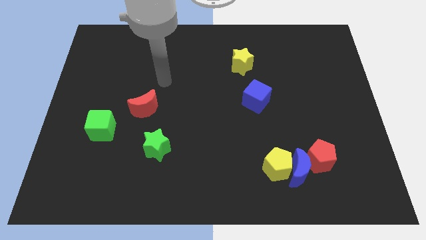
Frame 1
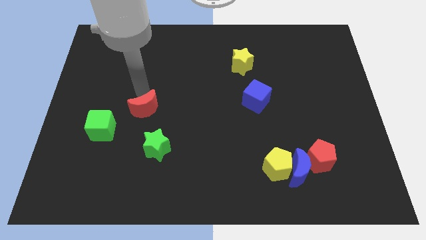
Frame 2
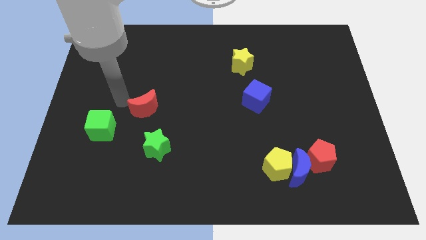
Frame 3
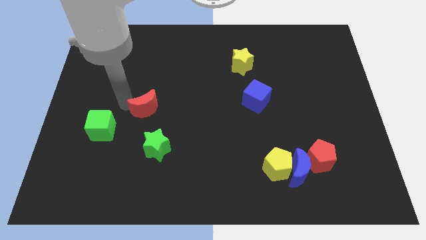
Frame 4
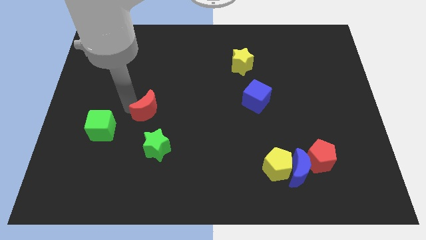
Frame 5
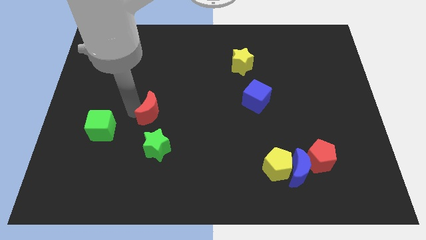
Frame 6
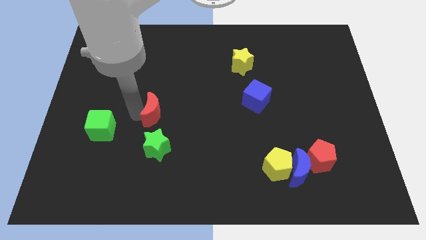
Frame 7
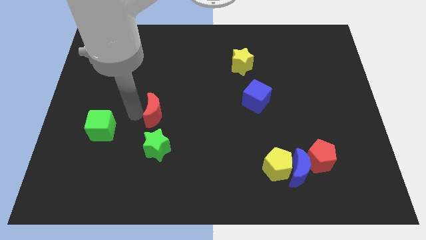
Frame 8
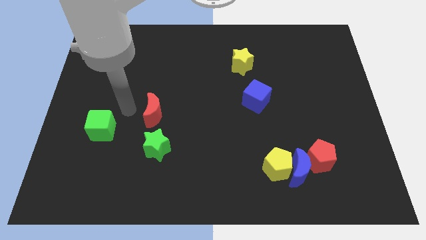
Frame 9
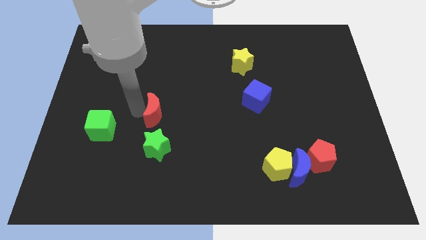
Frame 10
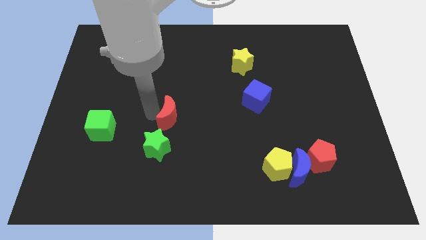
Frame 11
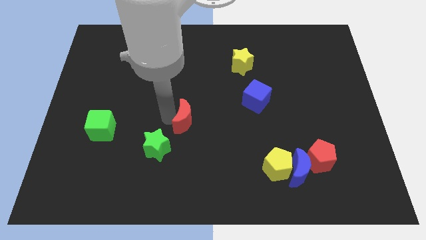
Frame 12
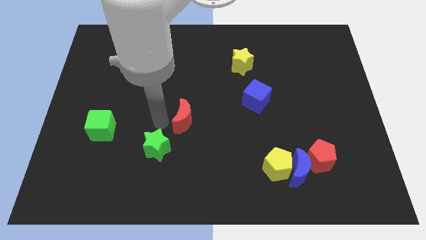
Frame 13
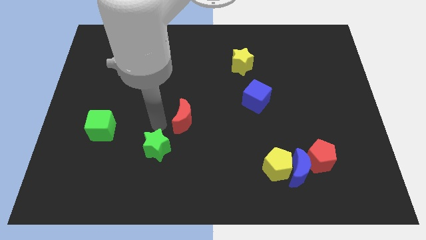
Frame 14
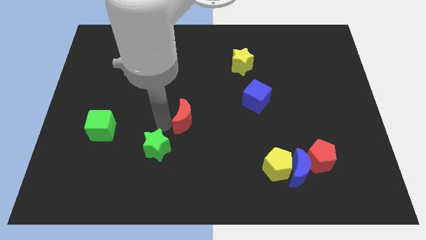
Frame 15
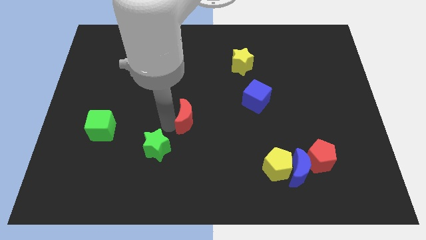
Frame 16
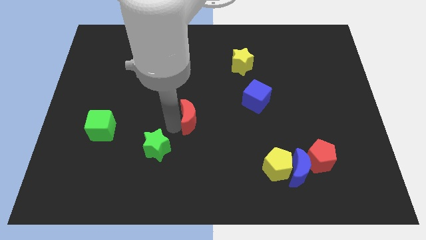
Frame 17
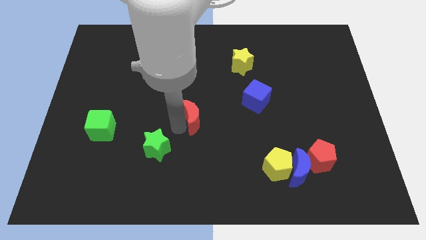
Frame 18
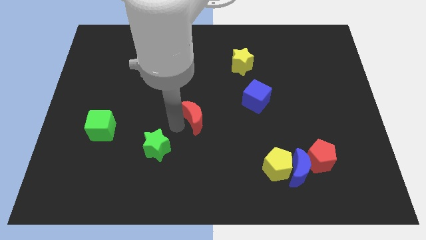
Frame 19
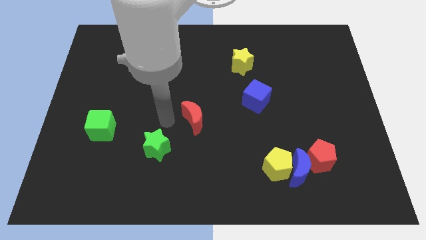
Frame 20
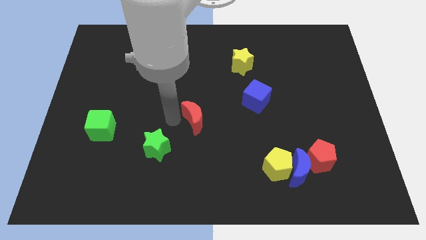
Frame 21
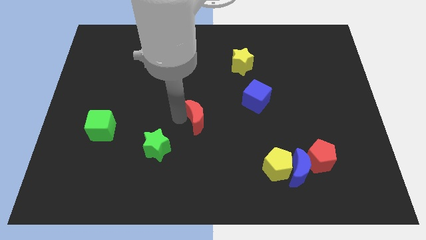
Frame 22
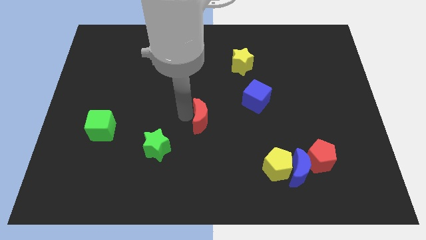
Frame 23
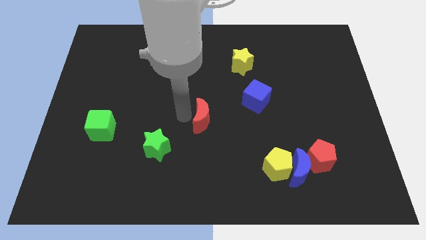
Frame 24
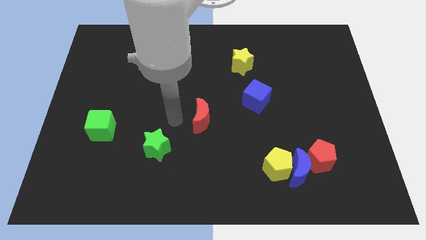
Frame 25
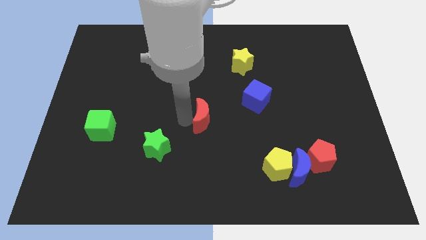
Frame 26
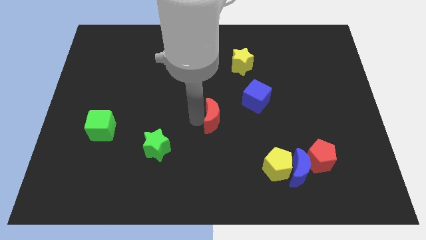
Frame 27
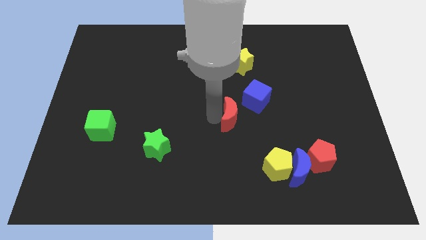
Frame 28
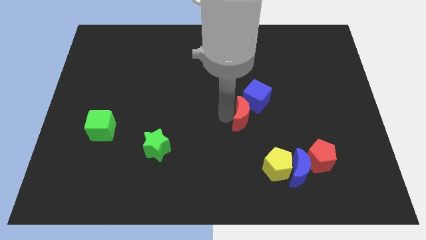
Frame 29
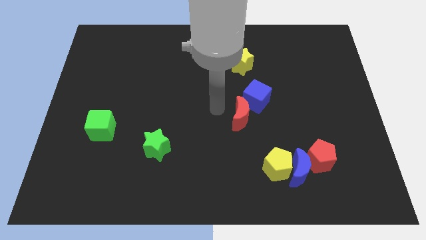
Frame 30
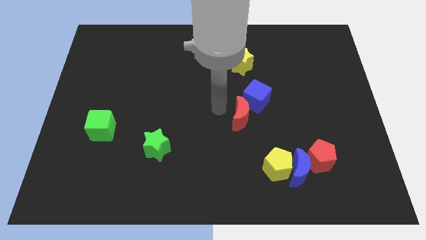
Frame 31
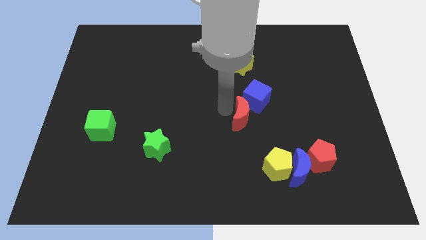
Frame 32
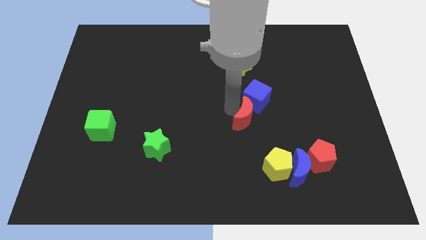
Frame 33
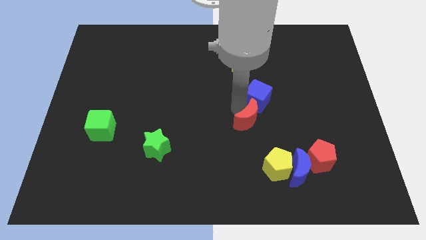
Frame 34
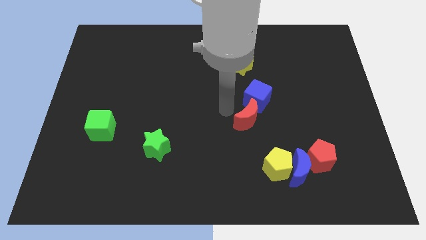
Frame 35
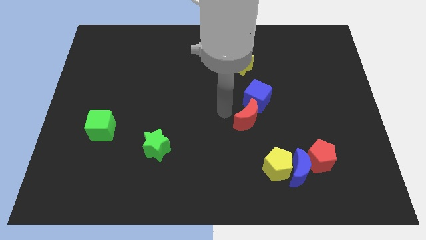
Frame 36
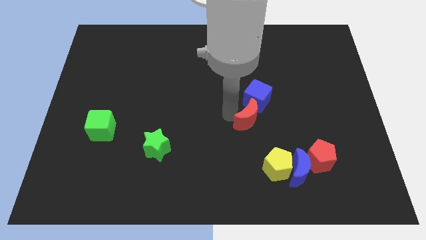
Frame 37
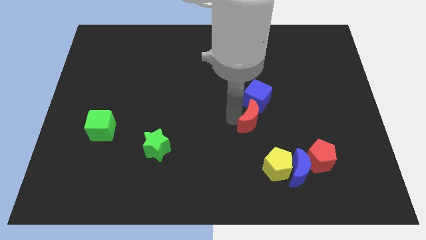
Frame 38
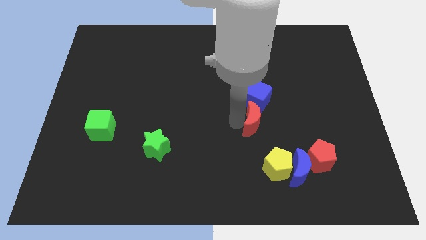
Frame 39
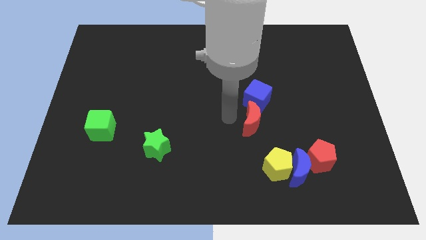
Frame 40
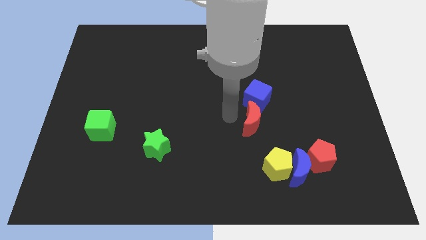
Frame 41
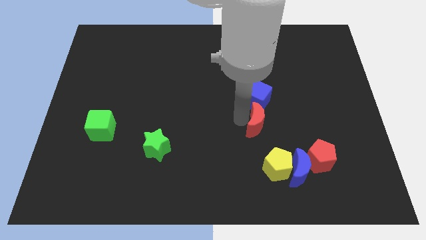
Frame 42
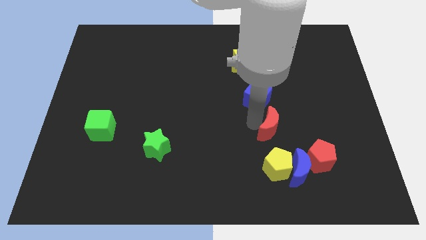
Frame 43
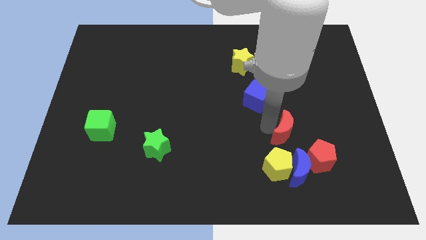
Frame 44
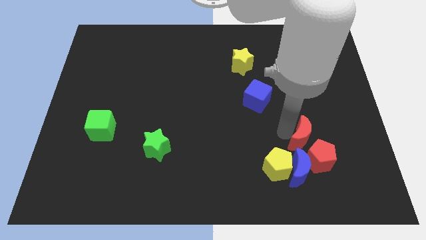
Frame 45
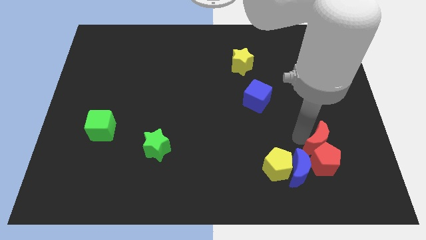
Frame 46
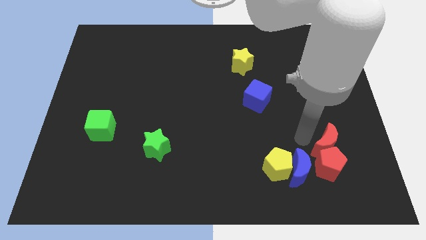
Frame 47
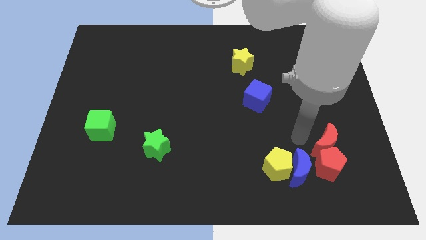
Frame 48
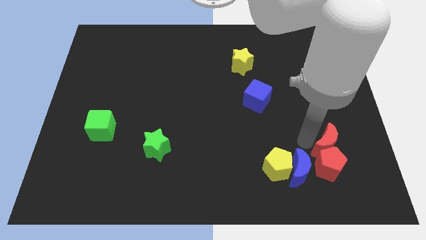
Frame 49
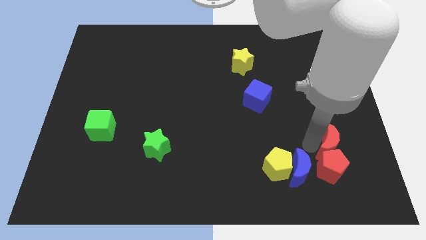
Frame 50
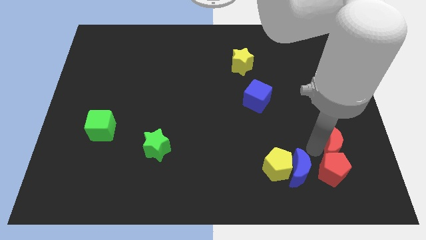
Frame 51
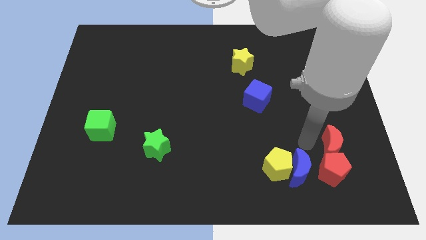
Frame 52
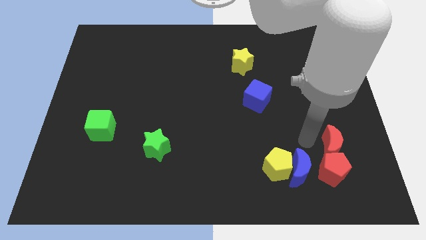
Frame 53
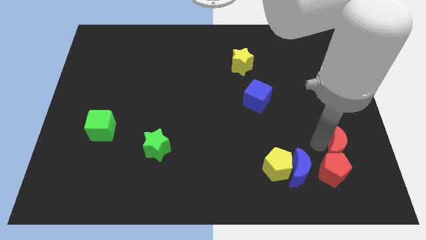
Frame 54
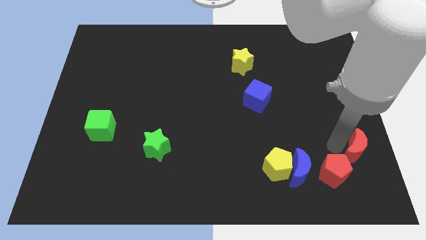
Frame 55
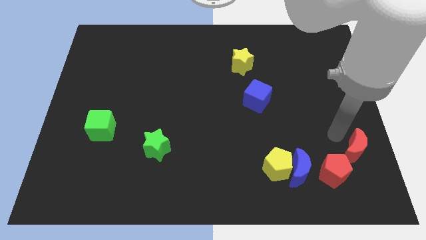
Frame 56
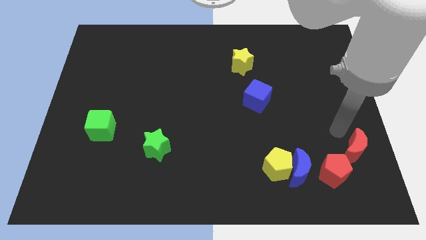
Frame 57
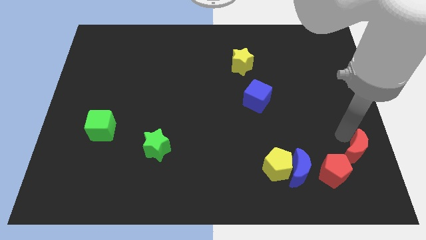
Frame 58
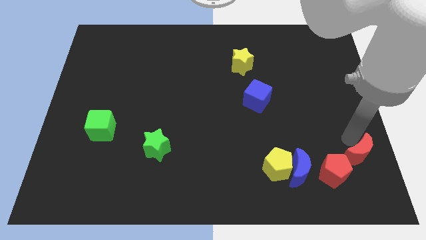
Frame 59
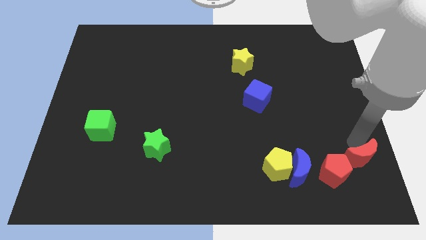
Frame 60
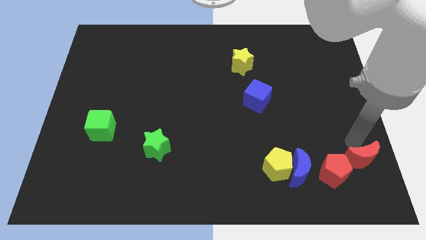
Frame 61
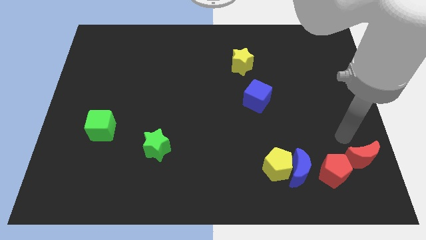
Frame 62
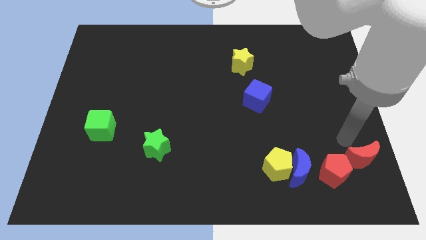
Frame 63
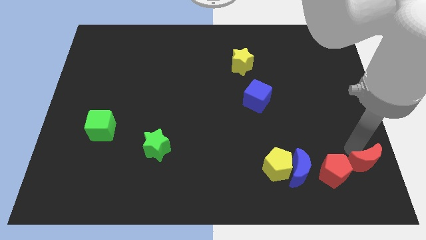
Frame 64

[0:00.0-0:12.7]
put the red moon to the lower right corner
